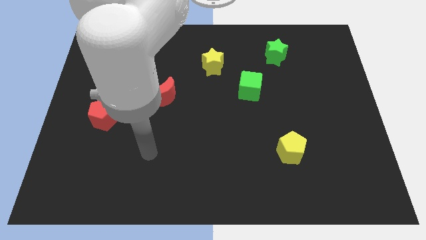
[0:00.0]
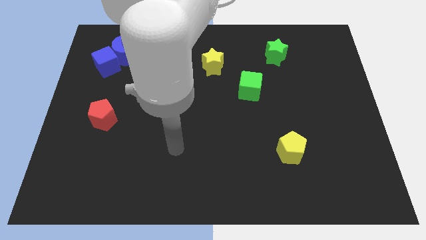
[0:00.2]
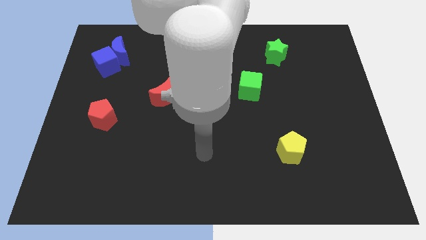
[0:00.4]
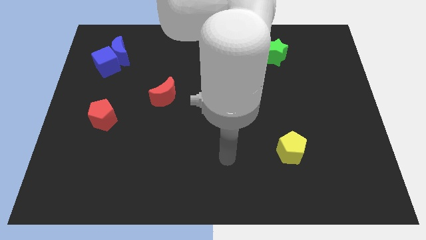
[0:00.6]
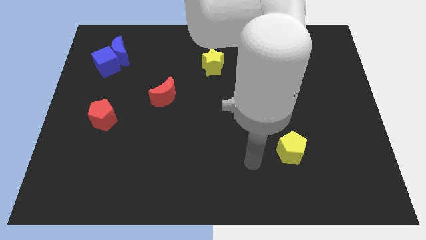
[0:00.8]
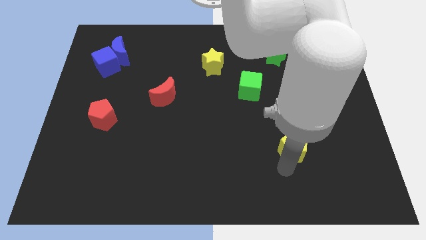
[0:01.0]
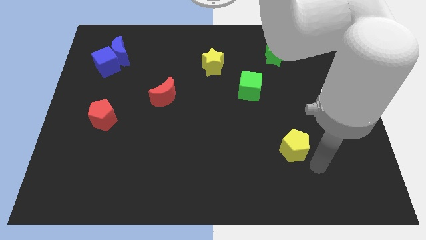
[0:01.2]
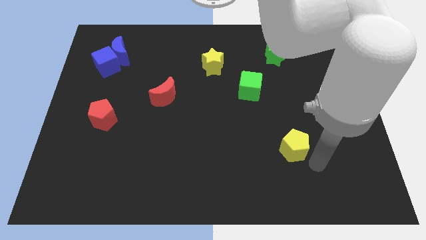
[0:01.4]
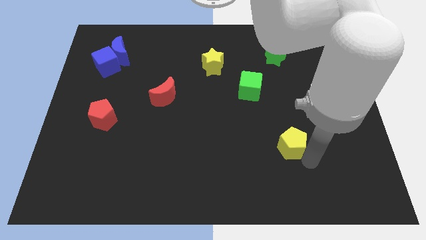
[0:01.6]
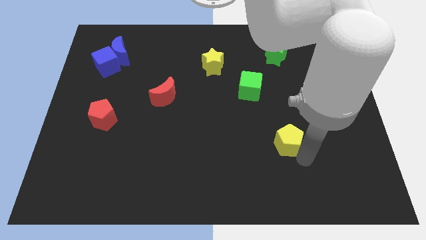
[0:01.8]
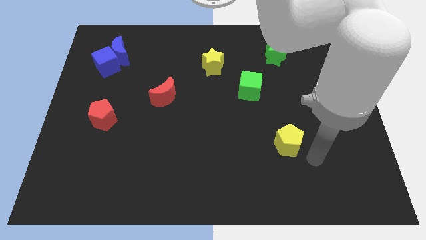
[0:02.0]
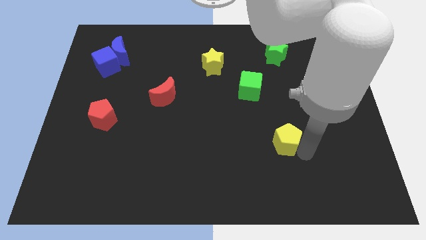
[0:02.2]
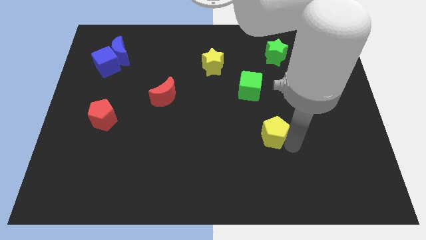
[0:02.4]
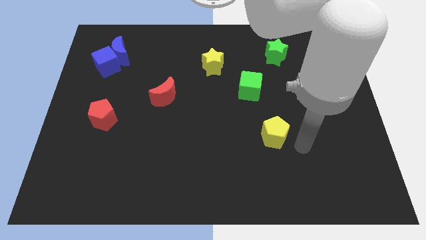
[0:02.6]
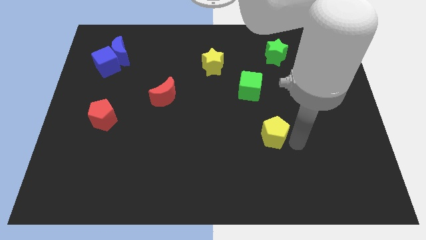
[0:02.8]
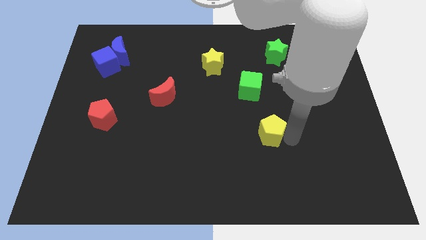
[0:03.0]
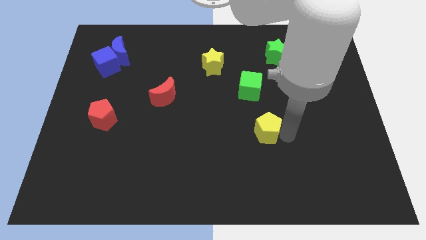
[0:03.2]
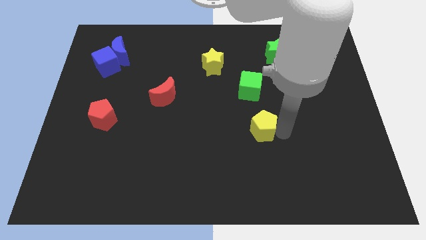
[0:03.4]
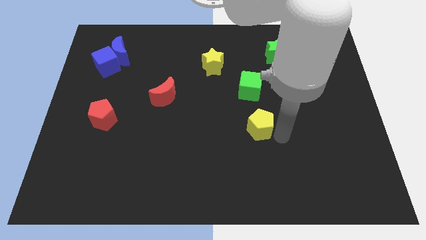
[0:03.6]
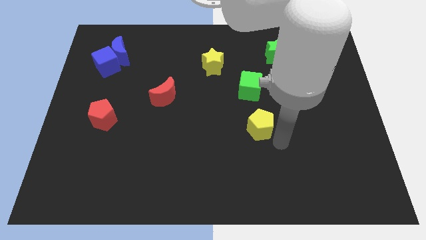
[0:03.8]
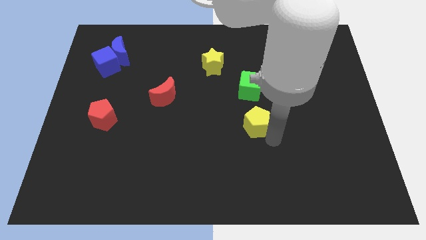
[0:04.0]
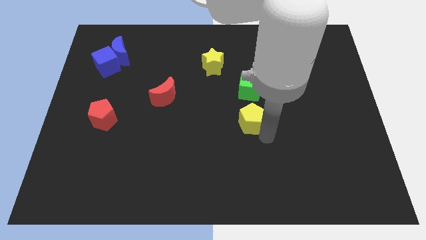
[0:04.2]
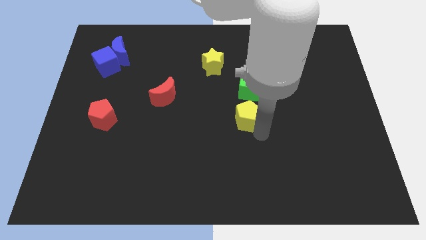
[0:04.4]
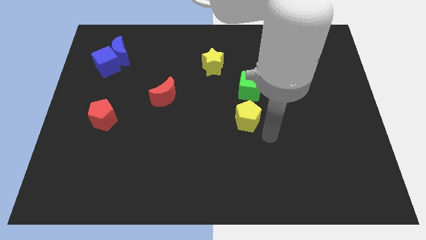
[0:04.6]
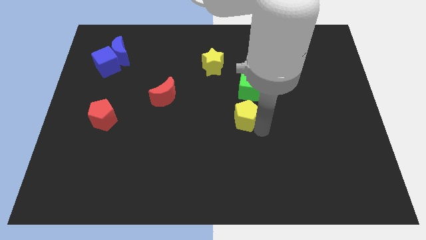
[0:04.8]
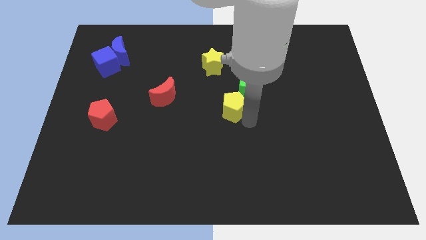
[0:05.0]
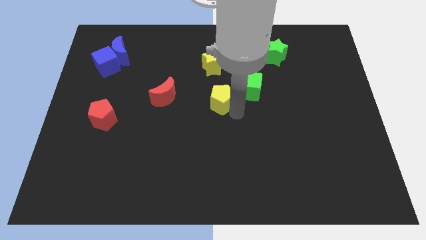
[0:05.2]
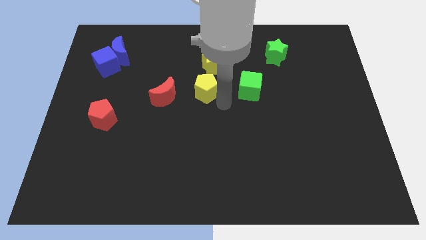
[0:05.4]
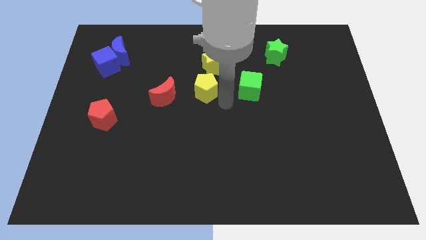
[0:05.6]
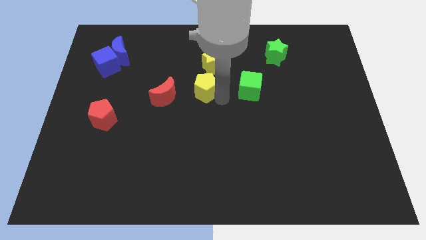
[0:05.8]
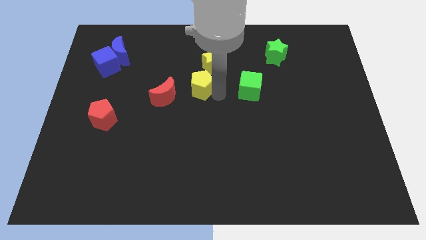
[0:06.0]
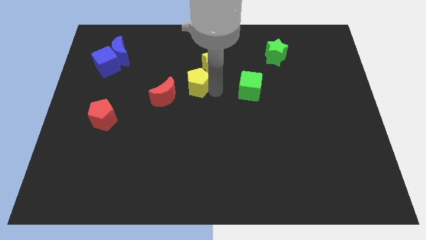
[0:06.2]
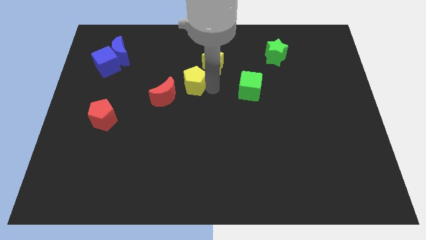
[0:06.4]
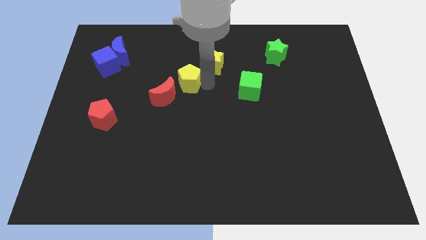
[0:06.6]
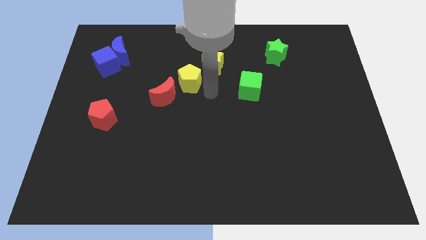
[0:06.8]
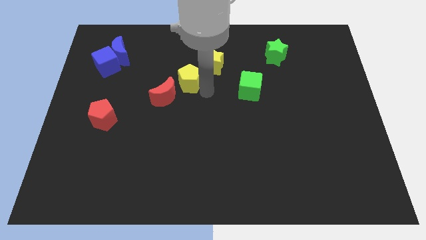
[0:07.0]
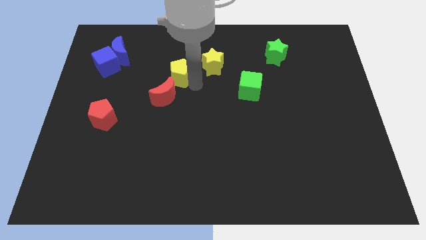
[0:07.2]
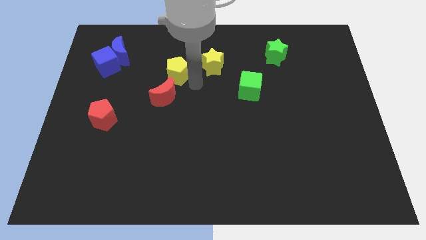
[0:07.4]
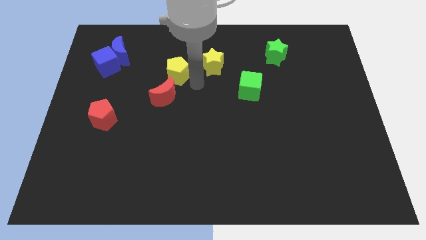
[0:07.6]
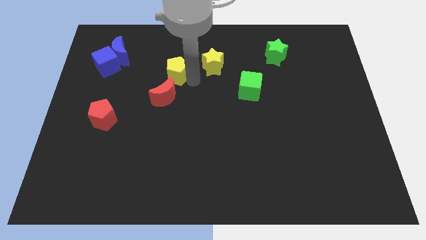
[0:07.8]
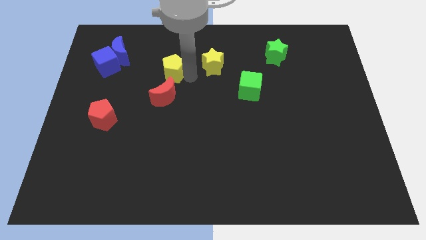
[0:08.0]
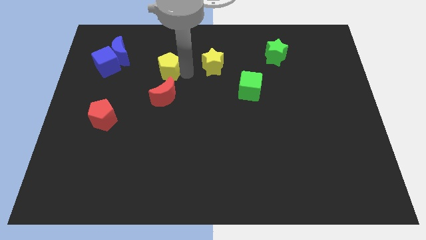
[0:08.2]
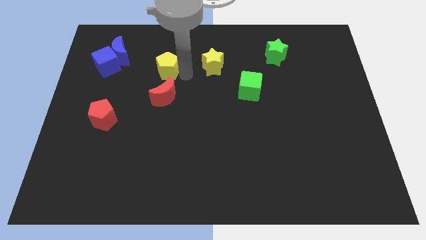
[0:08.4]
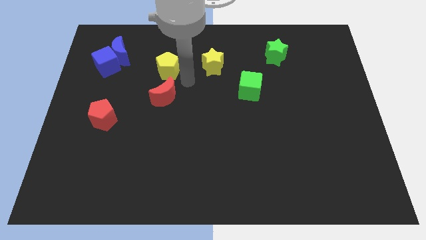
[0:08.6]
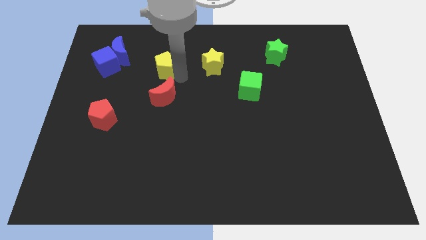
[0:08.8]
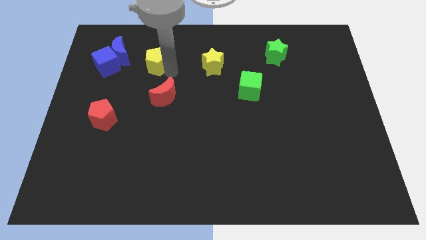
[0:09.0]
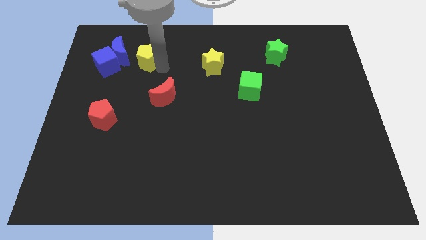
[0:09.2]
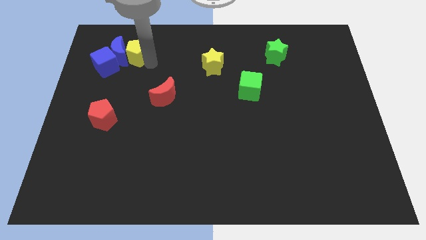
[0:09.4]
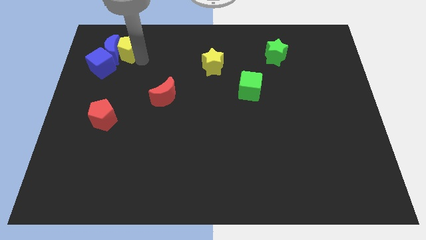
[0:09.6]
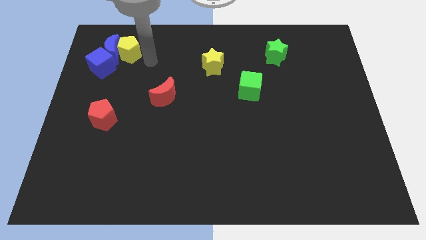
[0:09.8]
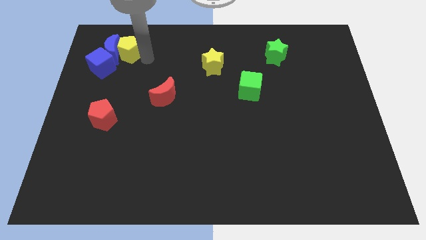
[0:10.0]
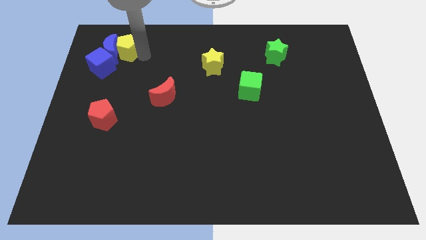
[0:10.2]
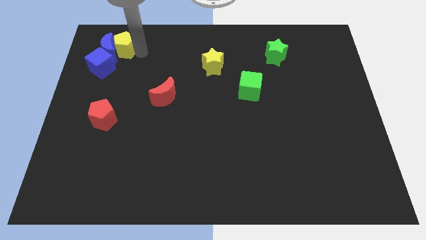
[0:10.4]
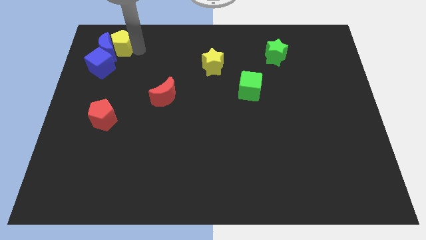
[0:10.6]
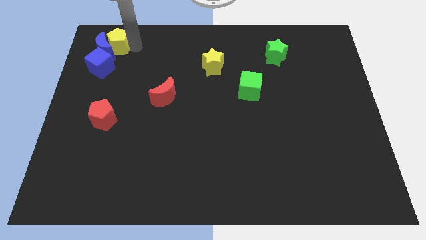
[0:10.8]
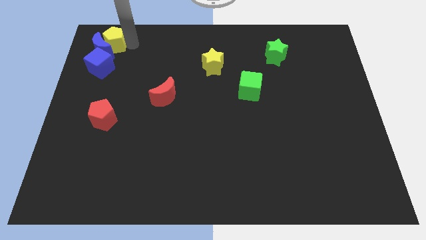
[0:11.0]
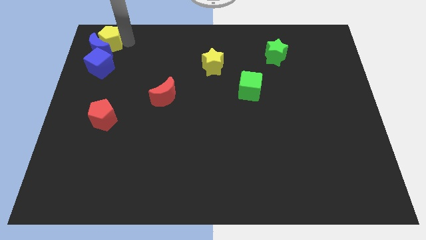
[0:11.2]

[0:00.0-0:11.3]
put the yellow pentagon to the top left of the board

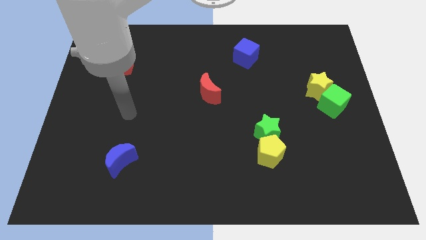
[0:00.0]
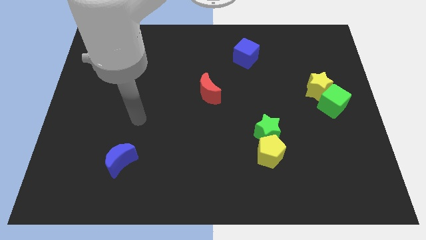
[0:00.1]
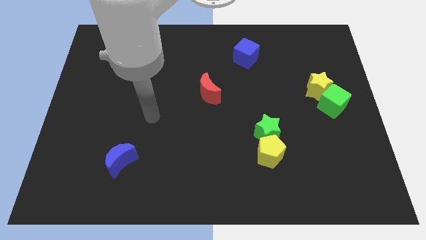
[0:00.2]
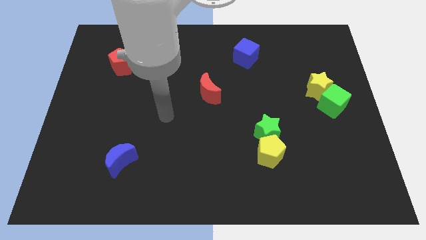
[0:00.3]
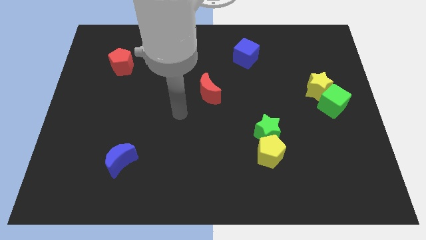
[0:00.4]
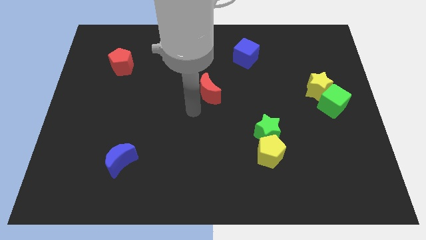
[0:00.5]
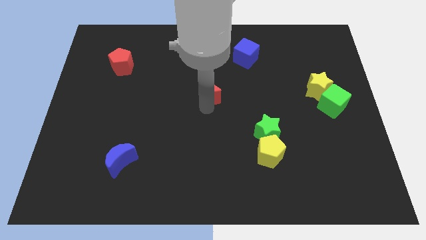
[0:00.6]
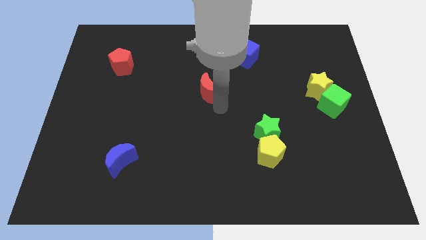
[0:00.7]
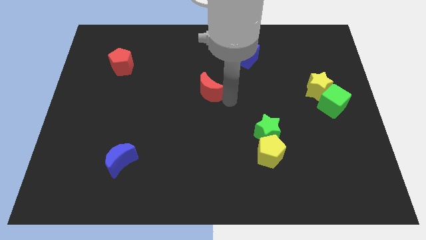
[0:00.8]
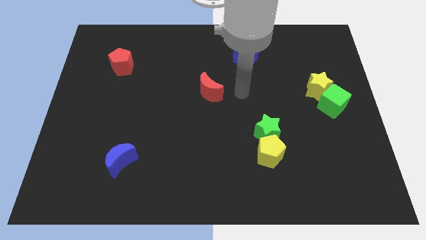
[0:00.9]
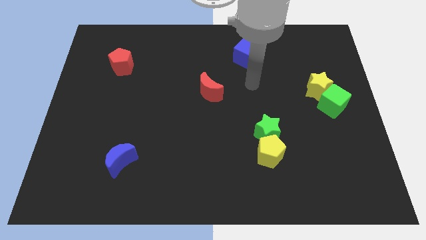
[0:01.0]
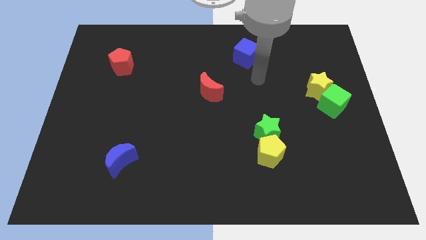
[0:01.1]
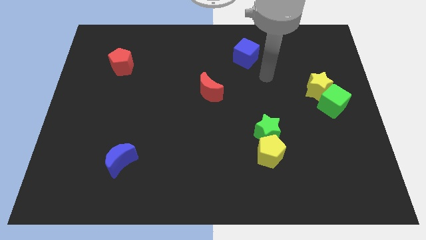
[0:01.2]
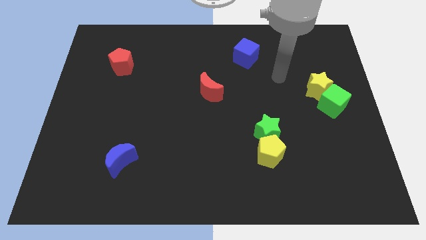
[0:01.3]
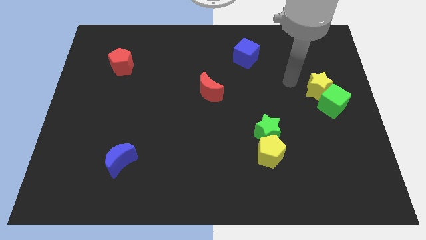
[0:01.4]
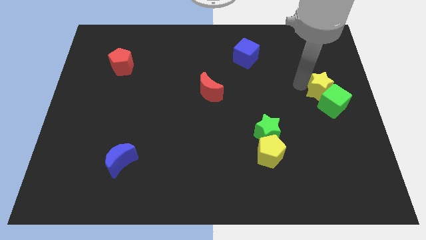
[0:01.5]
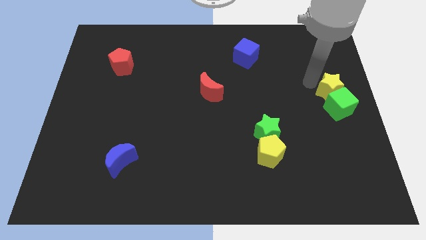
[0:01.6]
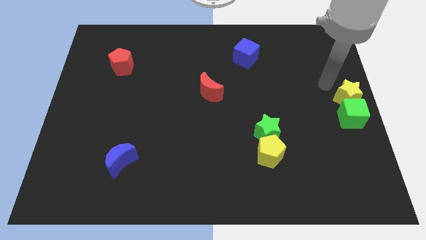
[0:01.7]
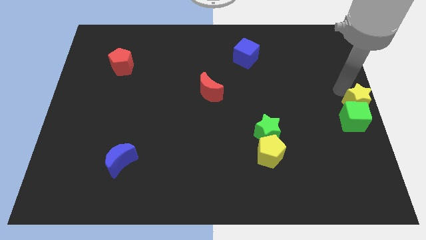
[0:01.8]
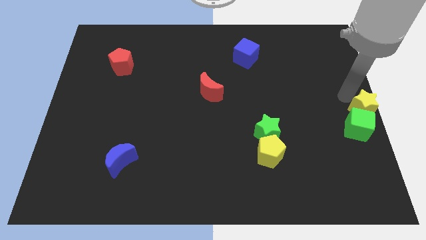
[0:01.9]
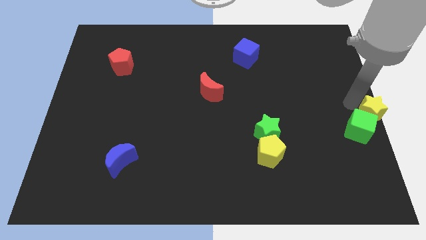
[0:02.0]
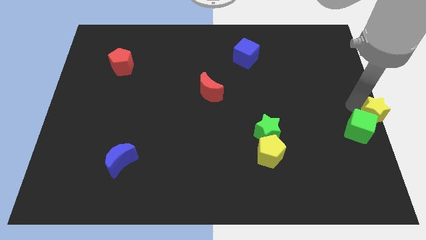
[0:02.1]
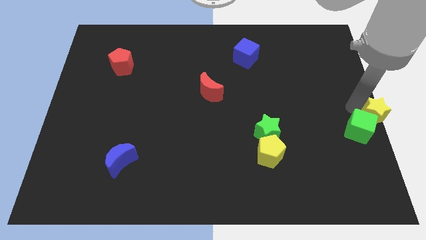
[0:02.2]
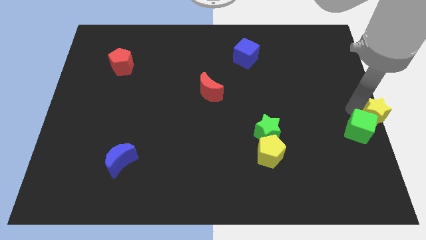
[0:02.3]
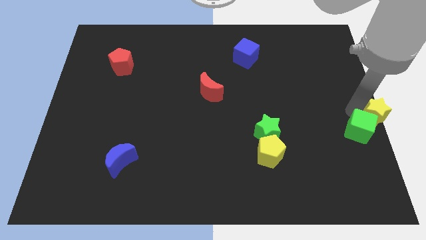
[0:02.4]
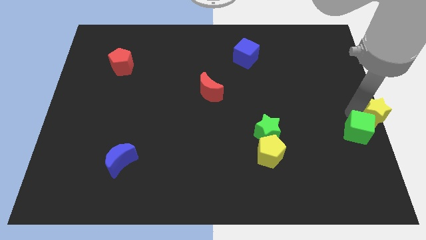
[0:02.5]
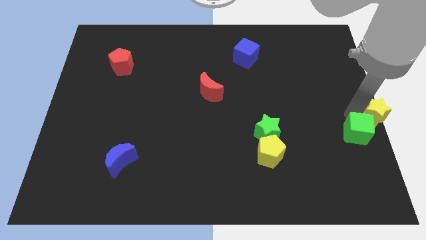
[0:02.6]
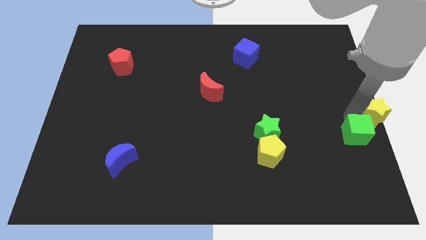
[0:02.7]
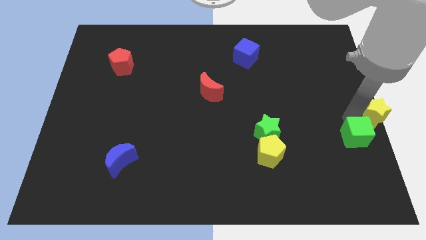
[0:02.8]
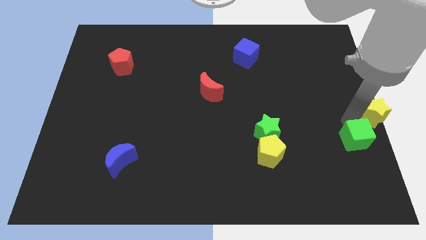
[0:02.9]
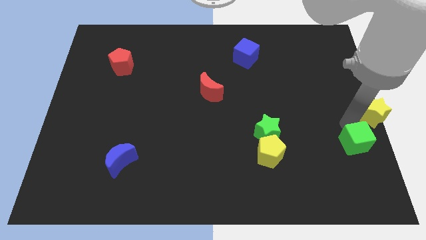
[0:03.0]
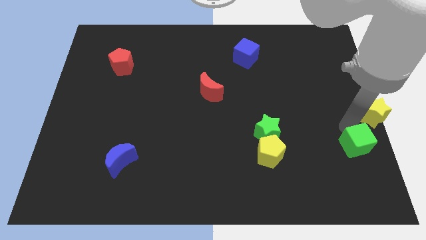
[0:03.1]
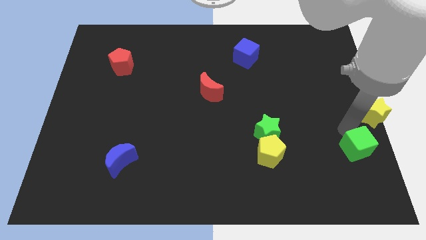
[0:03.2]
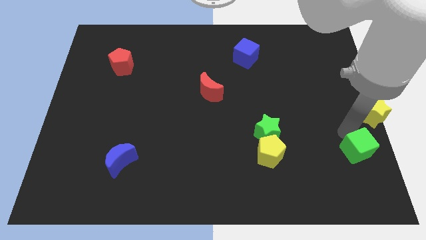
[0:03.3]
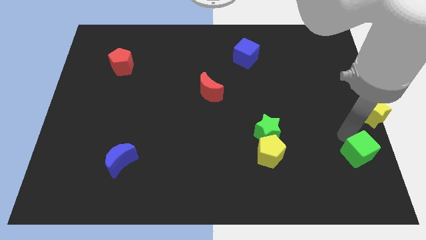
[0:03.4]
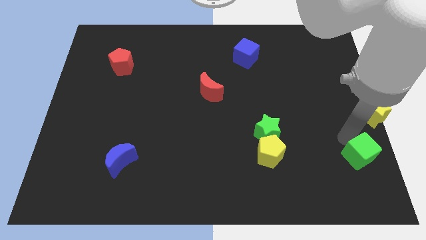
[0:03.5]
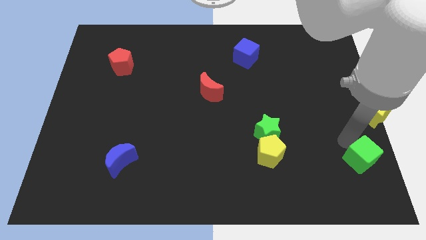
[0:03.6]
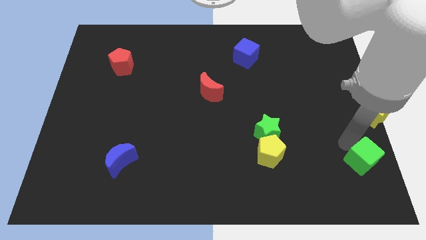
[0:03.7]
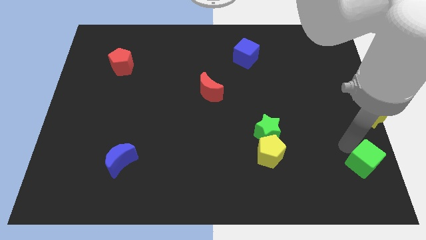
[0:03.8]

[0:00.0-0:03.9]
push the green cube to the bottom right corner
